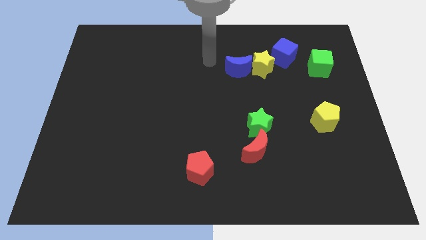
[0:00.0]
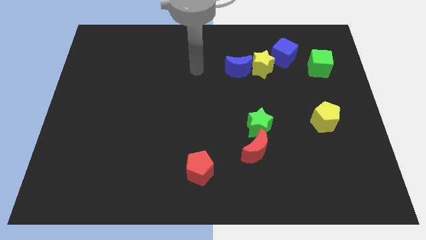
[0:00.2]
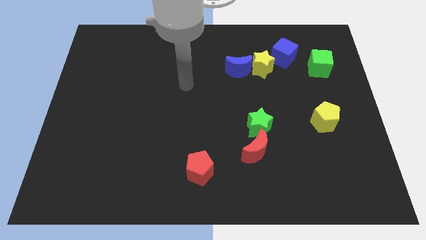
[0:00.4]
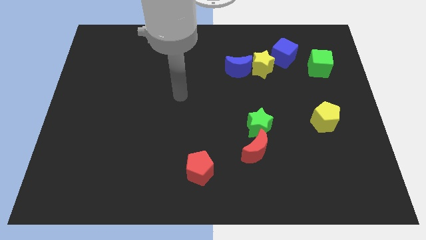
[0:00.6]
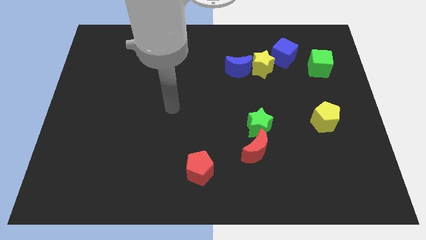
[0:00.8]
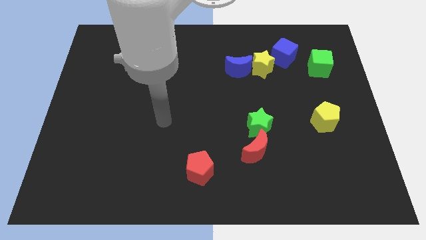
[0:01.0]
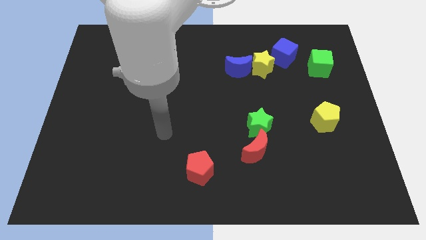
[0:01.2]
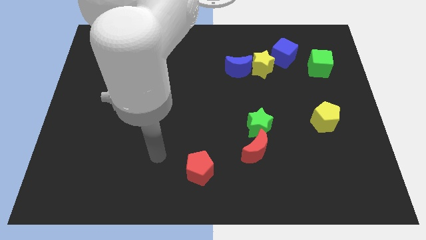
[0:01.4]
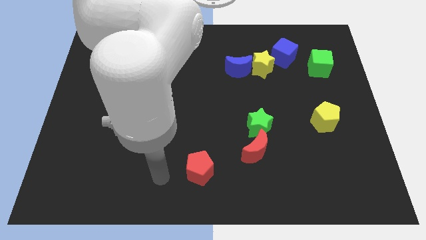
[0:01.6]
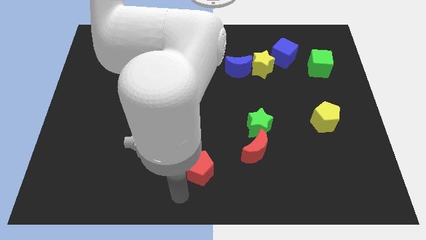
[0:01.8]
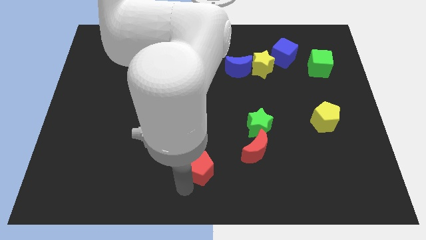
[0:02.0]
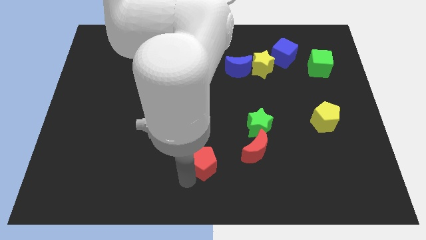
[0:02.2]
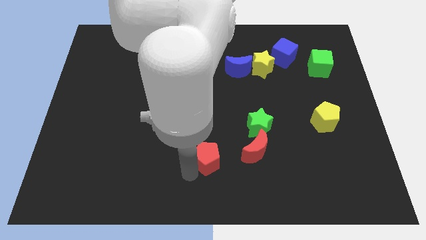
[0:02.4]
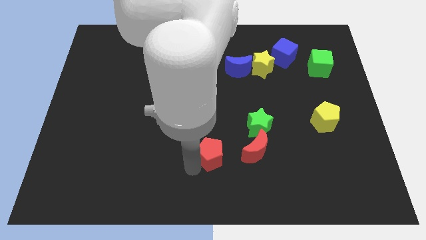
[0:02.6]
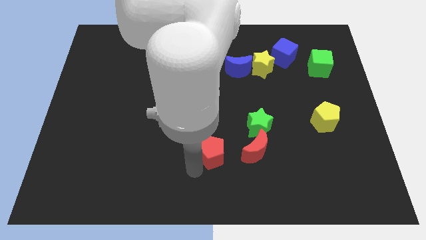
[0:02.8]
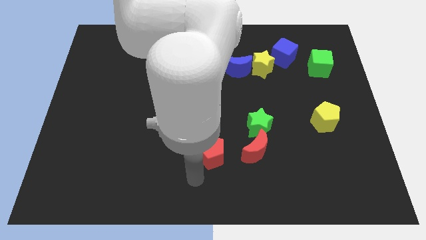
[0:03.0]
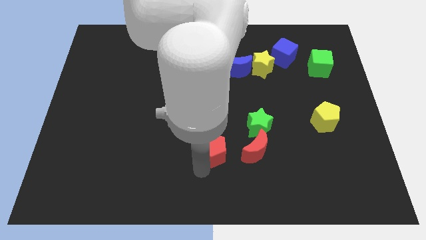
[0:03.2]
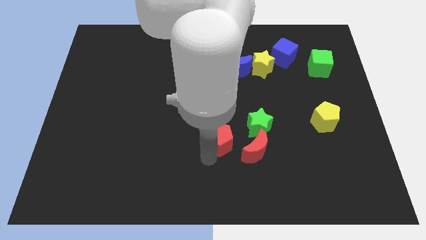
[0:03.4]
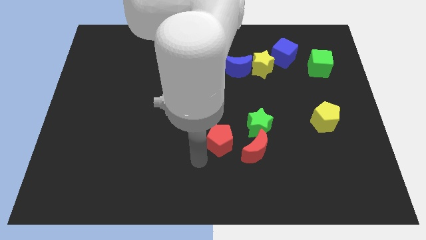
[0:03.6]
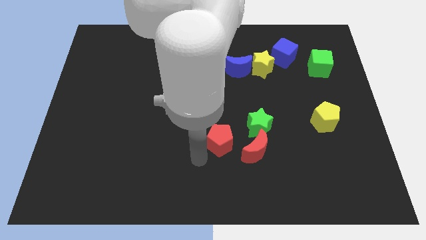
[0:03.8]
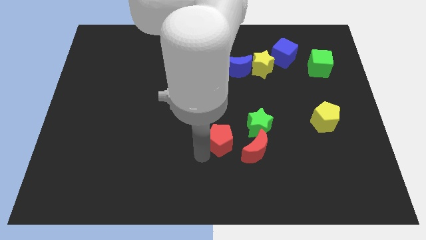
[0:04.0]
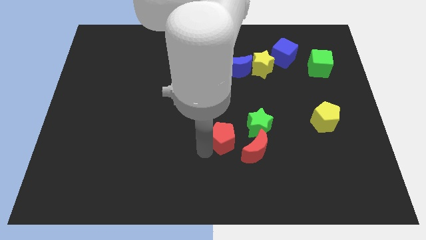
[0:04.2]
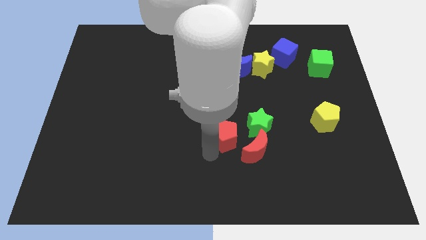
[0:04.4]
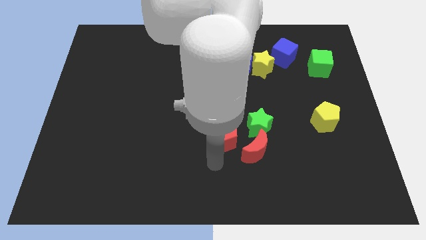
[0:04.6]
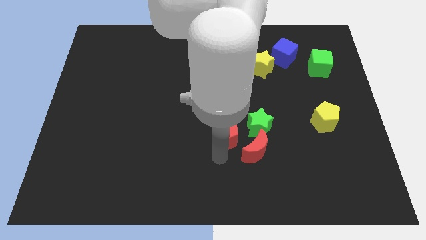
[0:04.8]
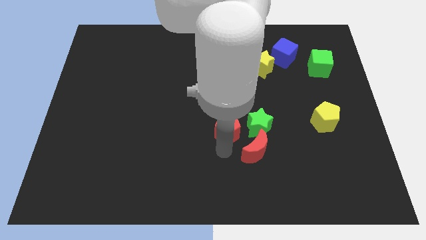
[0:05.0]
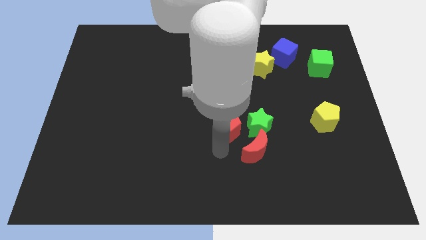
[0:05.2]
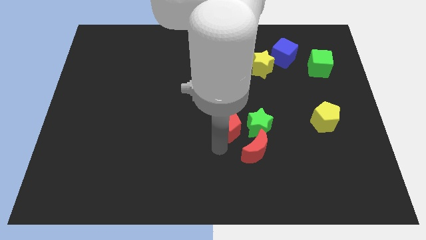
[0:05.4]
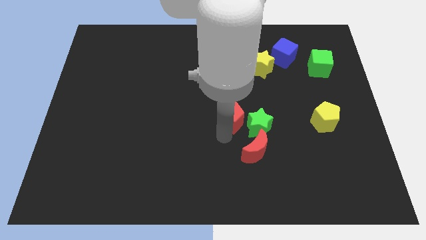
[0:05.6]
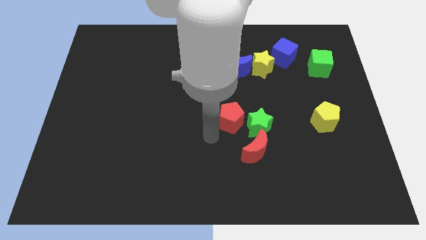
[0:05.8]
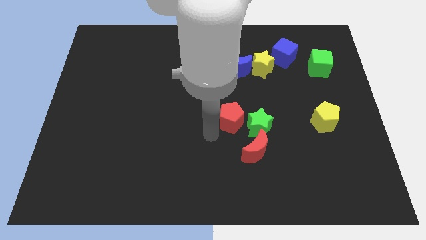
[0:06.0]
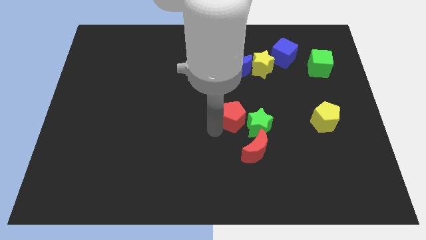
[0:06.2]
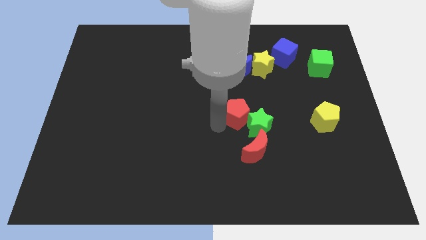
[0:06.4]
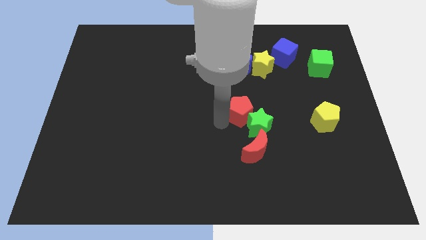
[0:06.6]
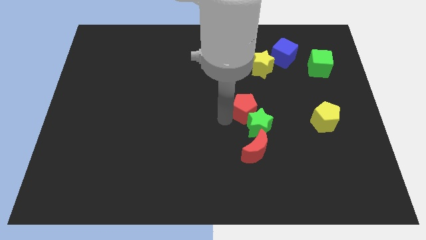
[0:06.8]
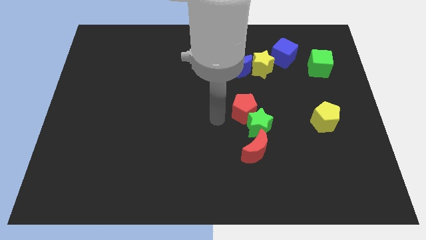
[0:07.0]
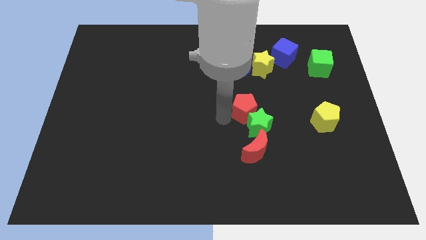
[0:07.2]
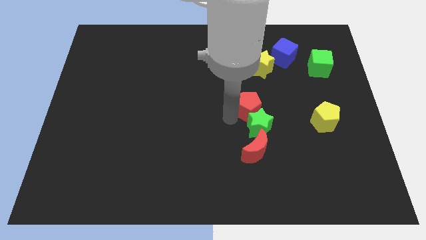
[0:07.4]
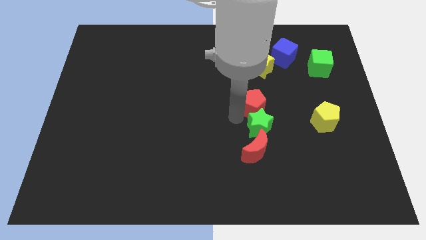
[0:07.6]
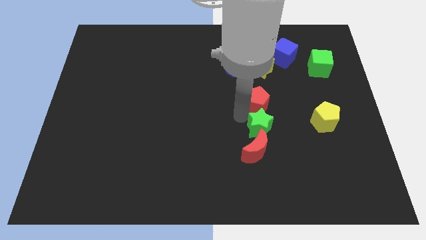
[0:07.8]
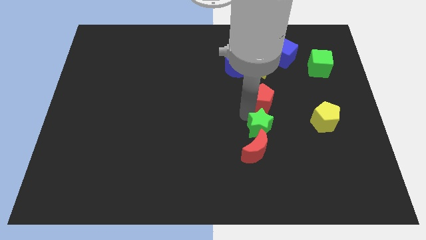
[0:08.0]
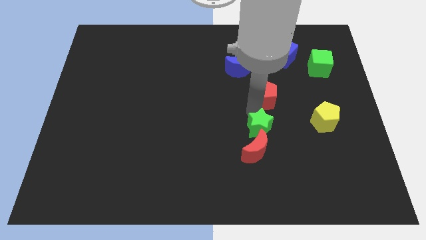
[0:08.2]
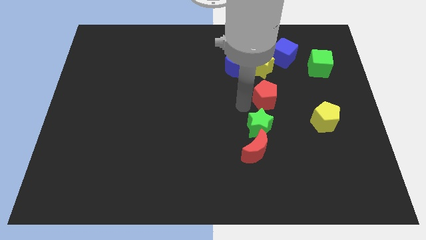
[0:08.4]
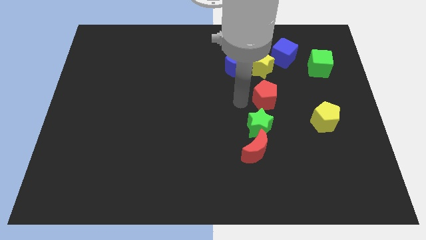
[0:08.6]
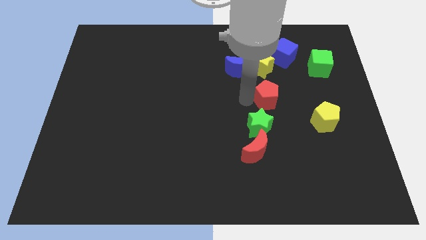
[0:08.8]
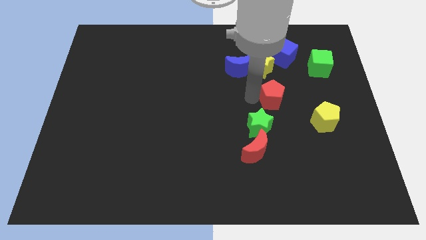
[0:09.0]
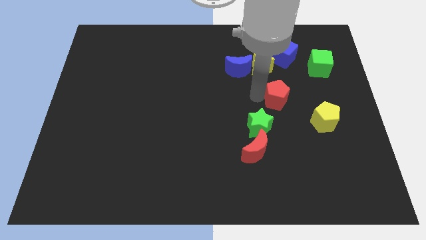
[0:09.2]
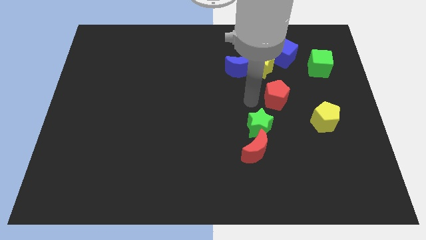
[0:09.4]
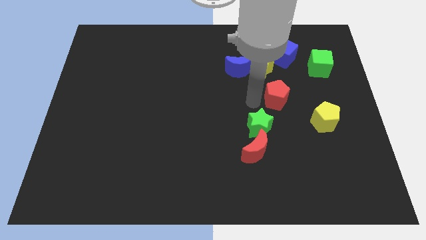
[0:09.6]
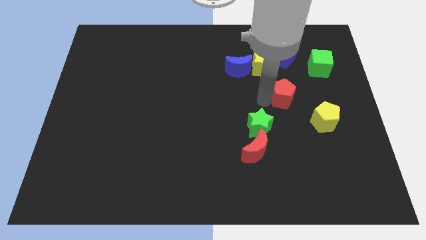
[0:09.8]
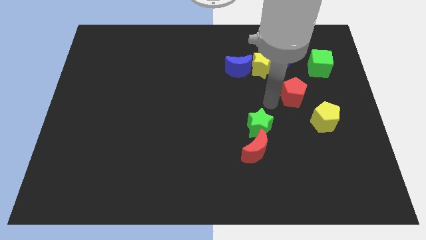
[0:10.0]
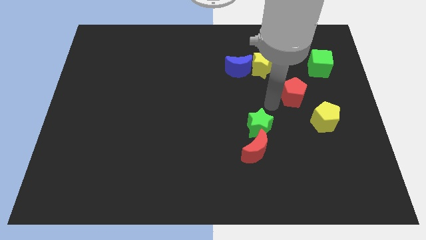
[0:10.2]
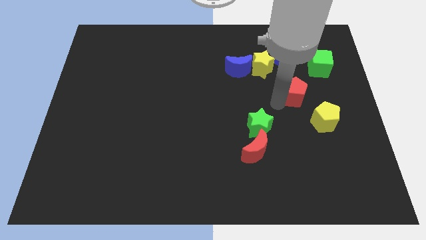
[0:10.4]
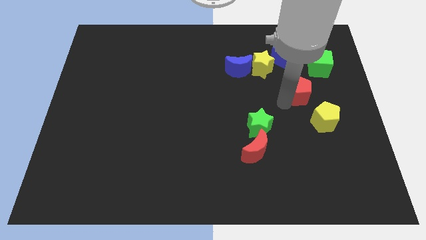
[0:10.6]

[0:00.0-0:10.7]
put the red pentagon to the top side of the yellow pentagon

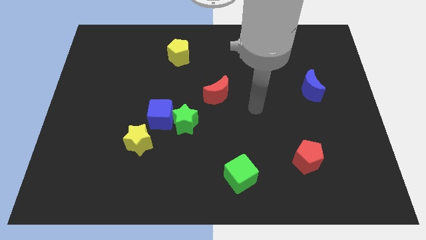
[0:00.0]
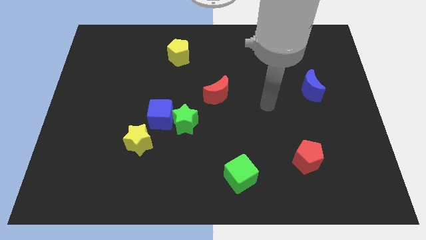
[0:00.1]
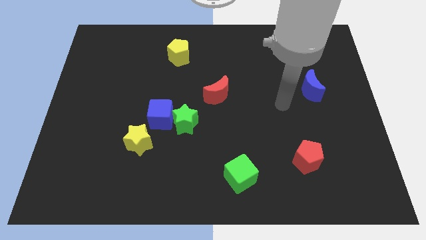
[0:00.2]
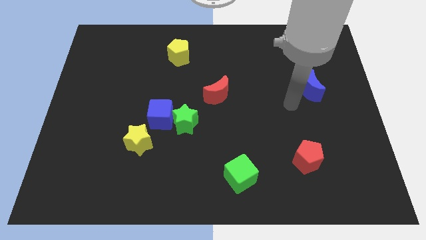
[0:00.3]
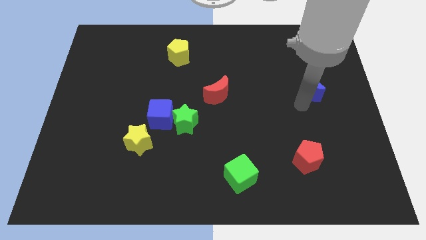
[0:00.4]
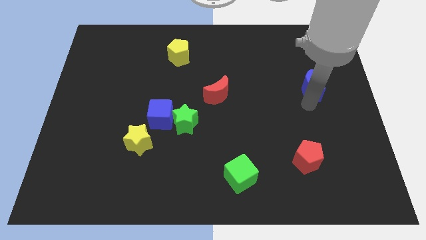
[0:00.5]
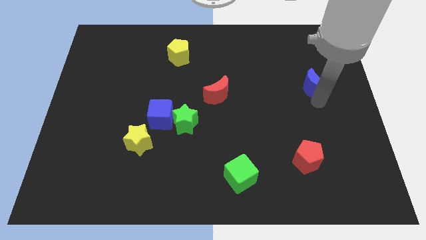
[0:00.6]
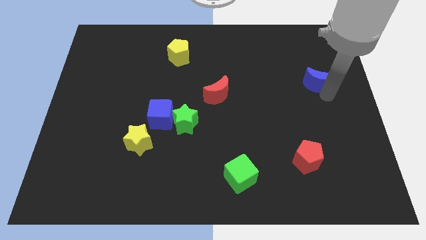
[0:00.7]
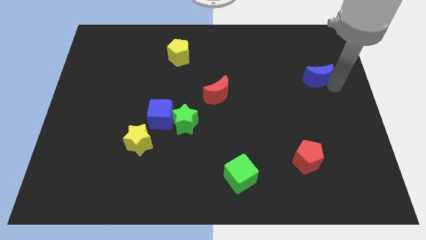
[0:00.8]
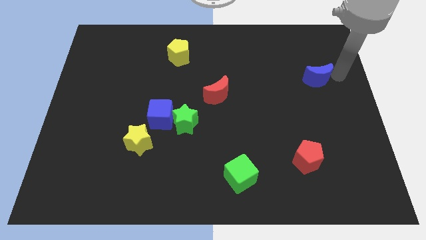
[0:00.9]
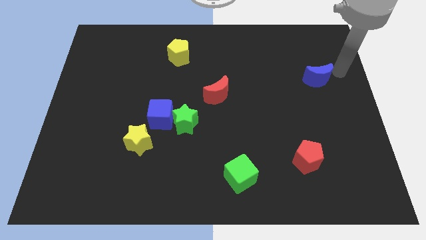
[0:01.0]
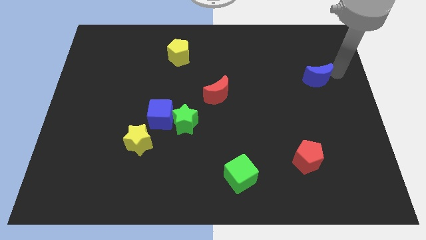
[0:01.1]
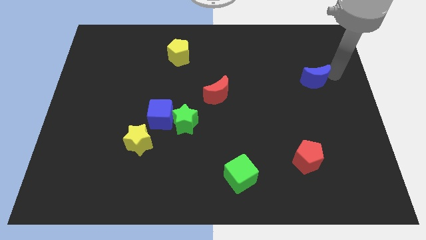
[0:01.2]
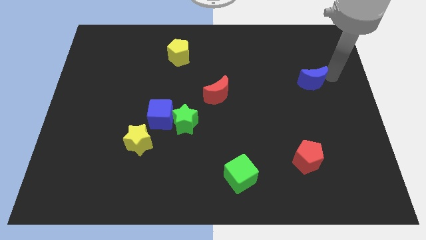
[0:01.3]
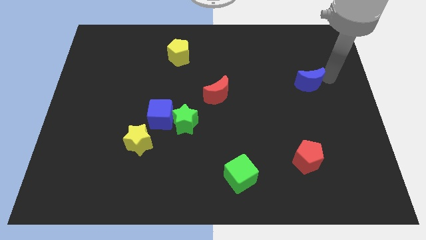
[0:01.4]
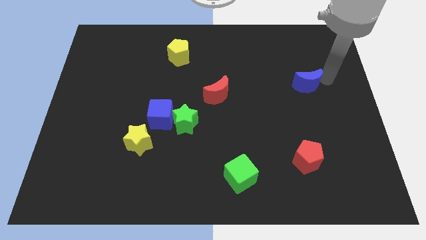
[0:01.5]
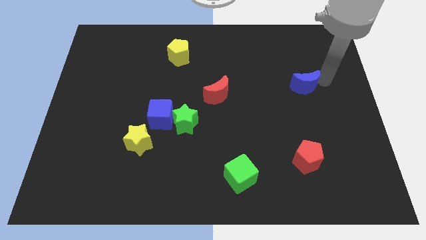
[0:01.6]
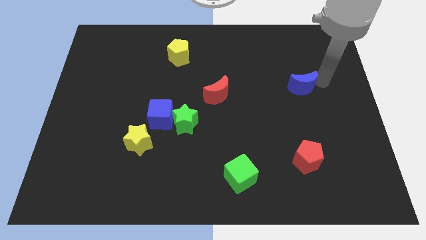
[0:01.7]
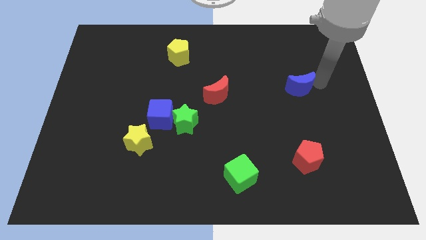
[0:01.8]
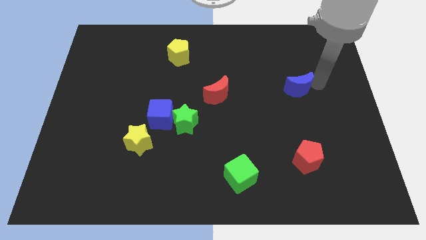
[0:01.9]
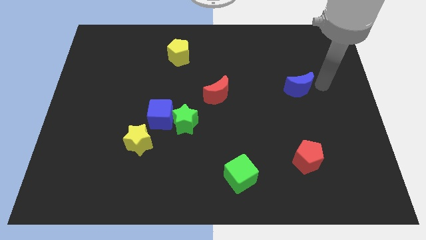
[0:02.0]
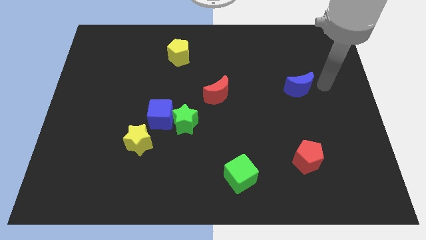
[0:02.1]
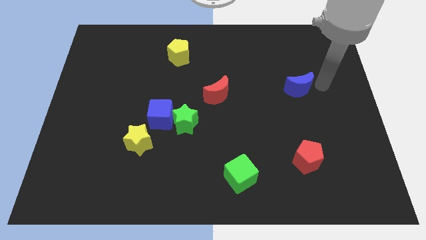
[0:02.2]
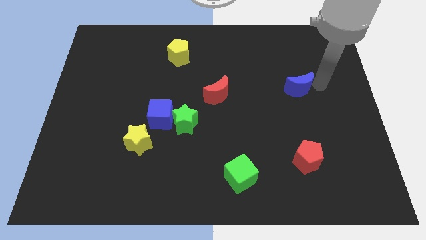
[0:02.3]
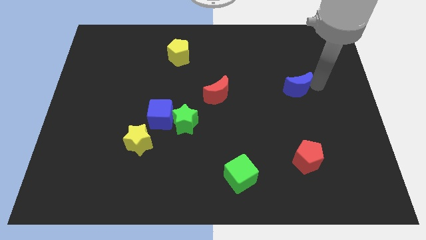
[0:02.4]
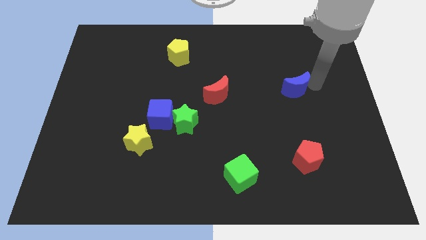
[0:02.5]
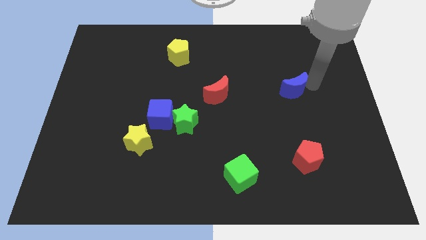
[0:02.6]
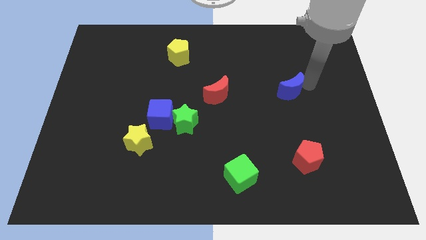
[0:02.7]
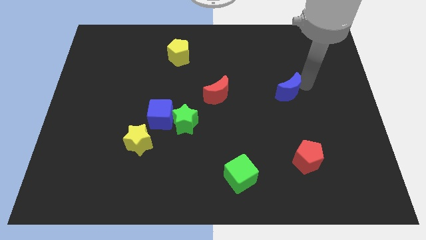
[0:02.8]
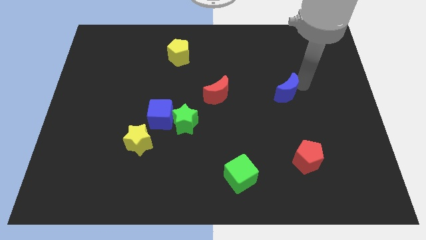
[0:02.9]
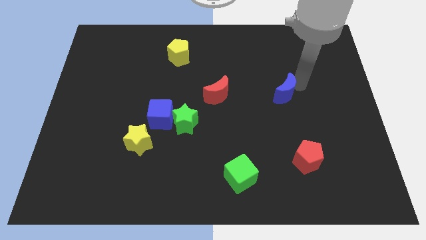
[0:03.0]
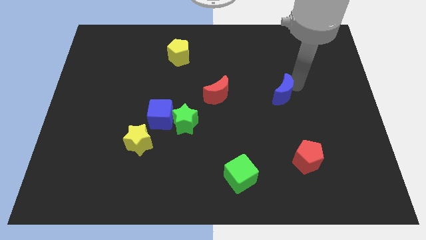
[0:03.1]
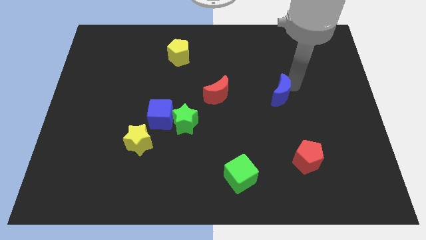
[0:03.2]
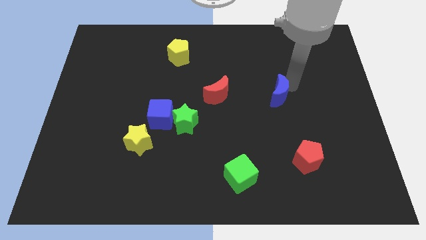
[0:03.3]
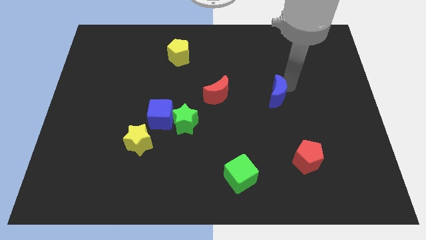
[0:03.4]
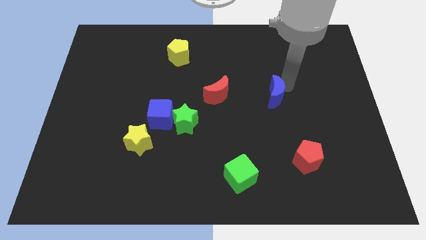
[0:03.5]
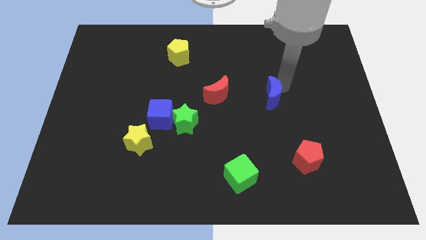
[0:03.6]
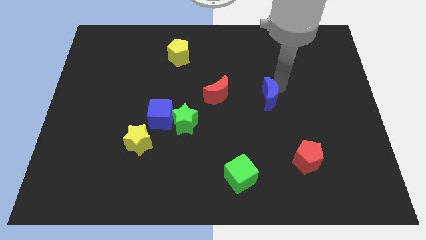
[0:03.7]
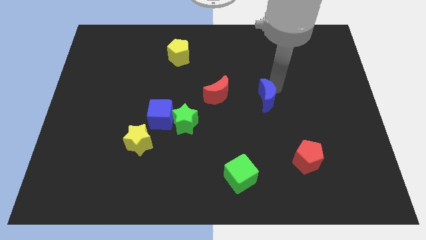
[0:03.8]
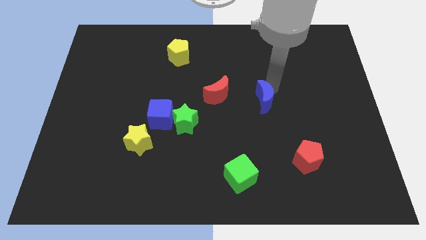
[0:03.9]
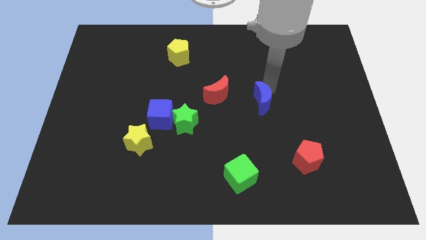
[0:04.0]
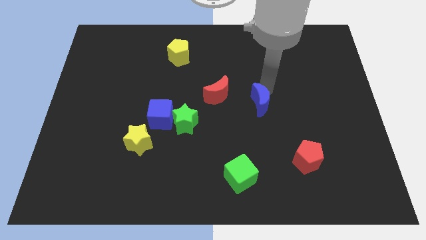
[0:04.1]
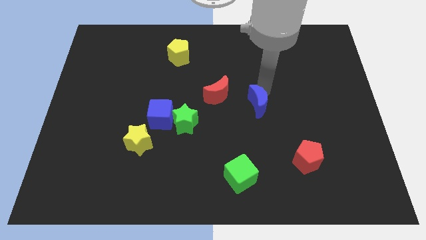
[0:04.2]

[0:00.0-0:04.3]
put the blue moon to the bottom right of the red moon
